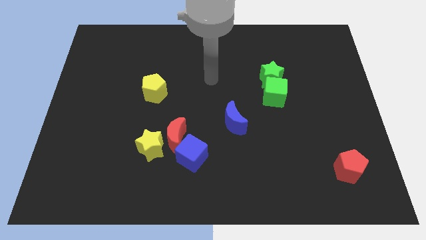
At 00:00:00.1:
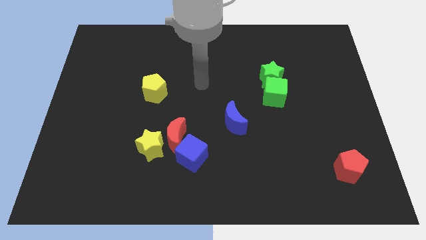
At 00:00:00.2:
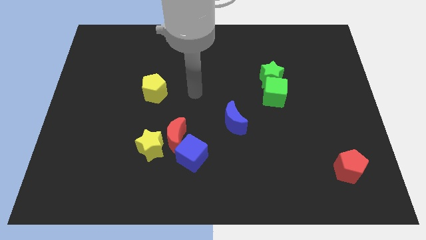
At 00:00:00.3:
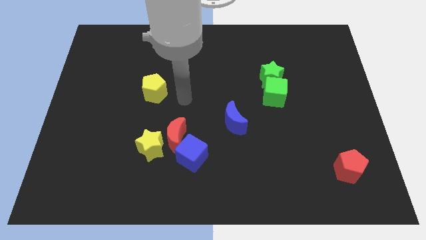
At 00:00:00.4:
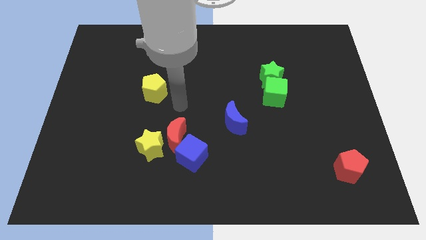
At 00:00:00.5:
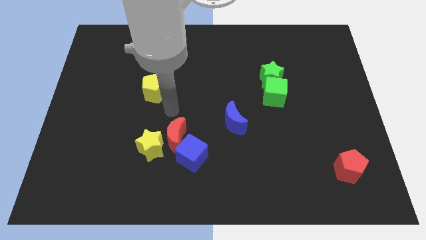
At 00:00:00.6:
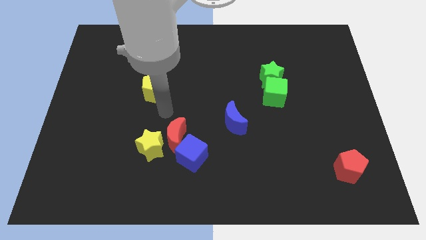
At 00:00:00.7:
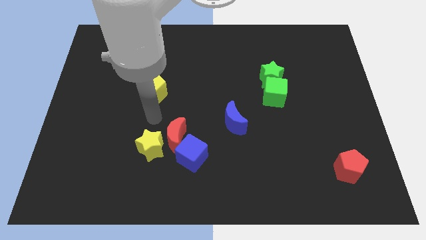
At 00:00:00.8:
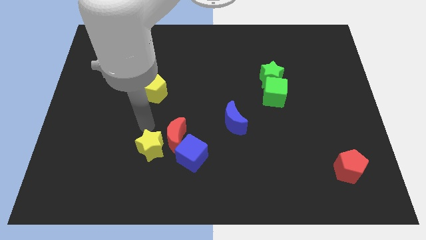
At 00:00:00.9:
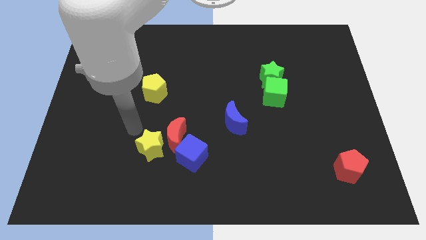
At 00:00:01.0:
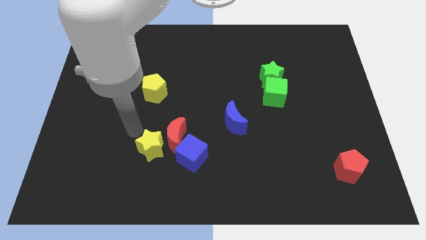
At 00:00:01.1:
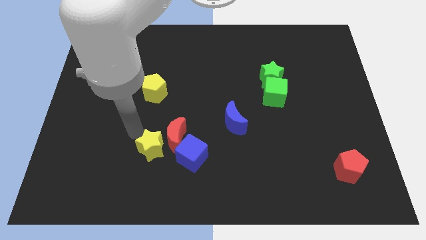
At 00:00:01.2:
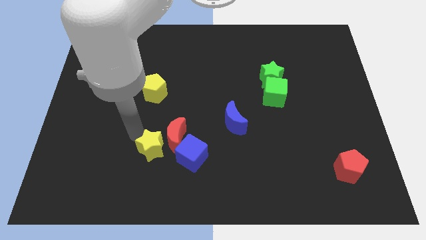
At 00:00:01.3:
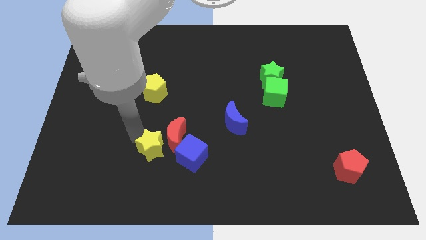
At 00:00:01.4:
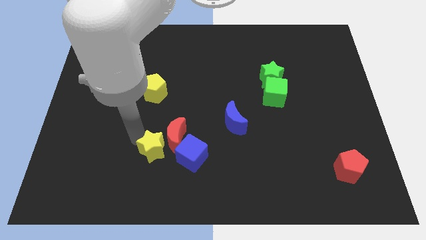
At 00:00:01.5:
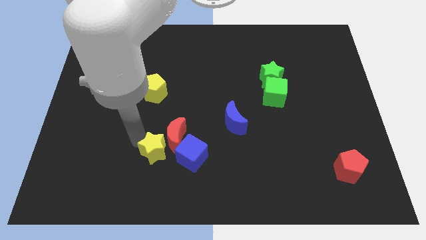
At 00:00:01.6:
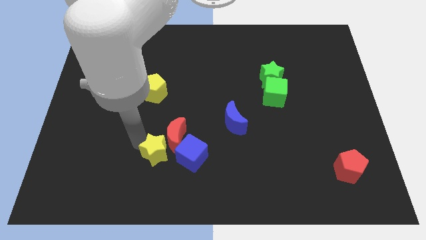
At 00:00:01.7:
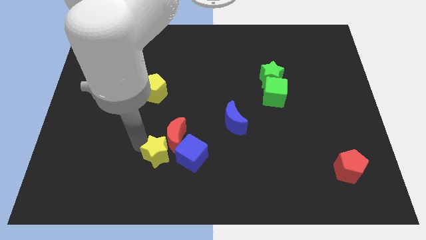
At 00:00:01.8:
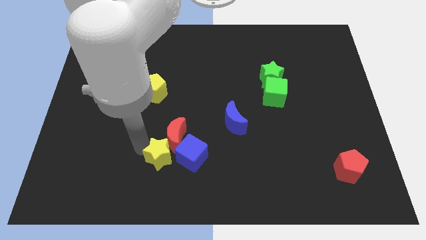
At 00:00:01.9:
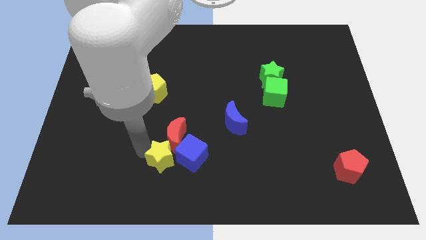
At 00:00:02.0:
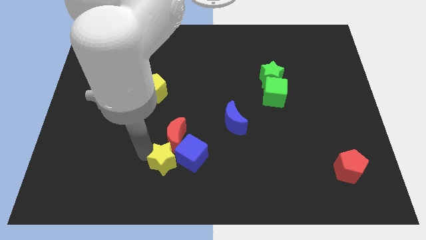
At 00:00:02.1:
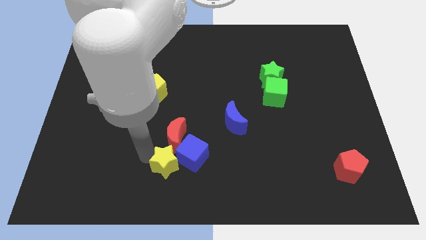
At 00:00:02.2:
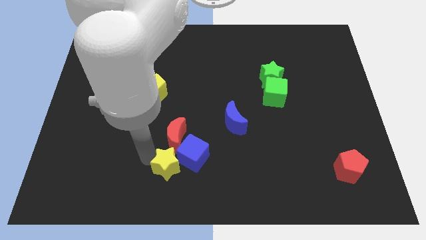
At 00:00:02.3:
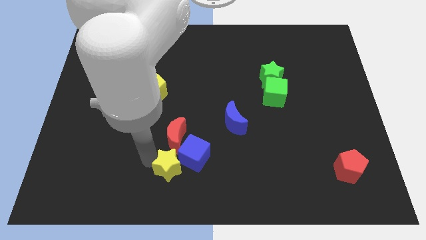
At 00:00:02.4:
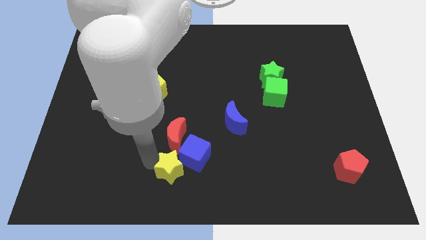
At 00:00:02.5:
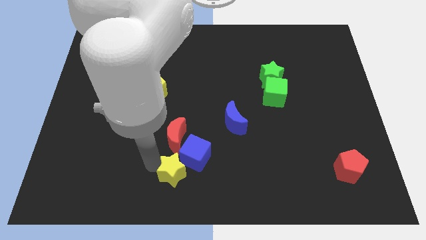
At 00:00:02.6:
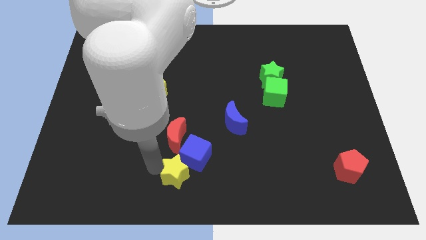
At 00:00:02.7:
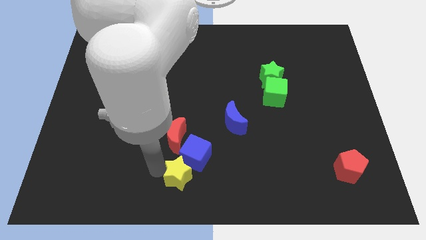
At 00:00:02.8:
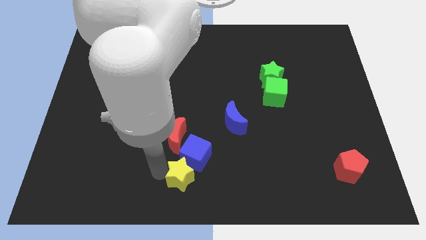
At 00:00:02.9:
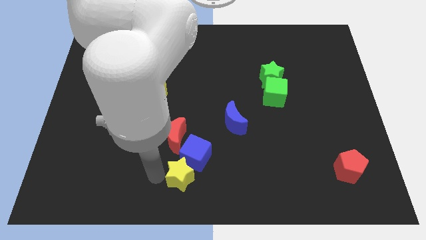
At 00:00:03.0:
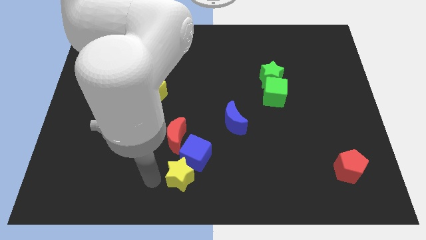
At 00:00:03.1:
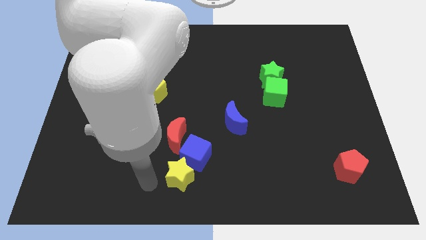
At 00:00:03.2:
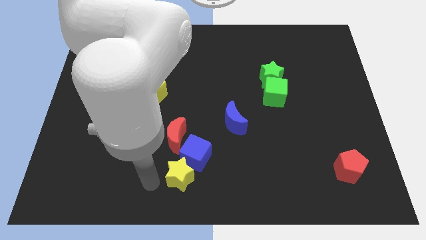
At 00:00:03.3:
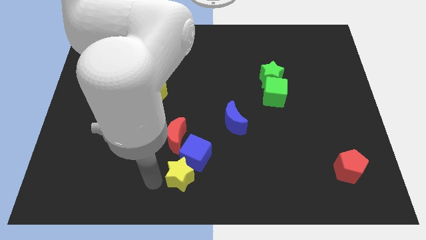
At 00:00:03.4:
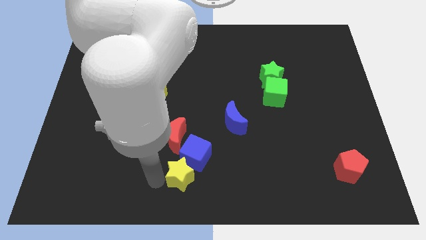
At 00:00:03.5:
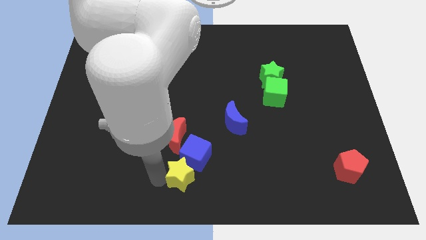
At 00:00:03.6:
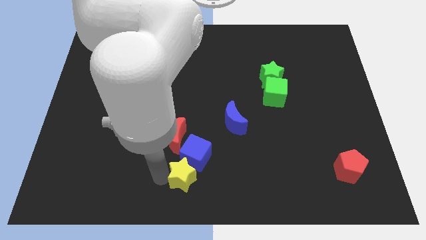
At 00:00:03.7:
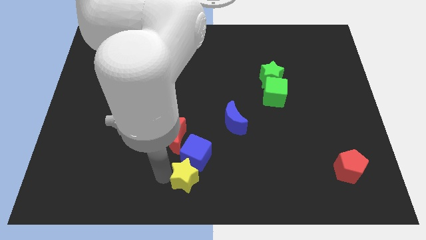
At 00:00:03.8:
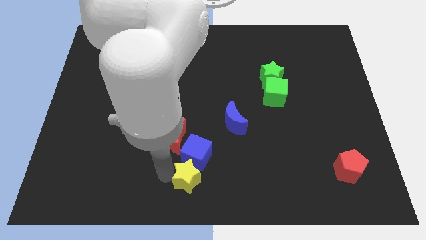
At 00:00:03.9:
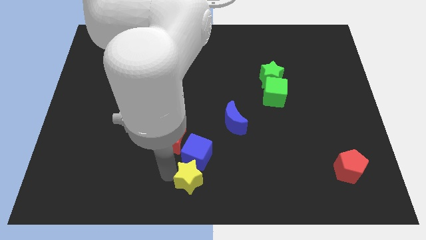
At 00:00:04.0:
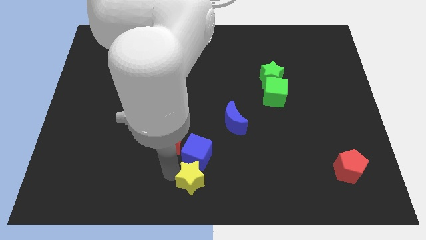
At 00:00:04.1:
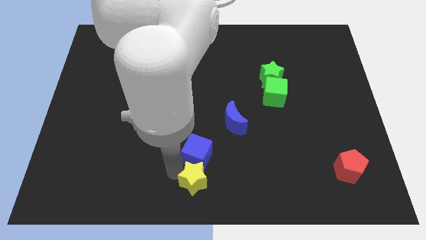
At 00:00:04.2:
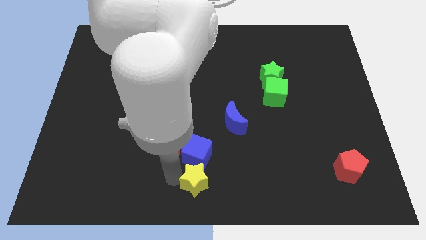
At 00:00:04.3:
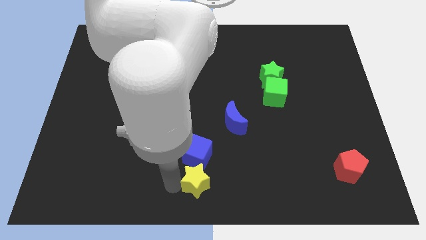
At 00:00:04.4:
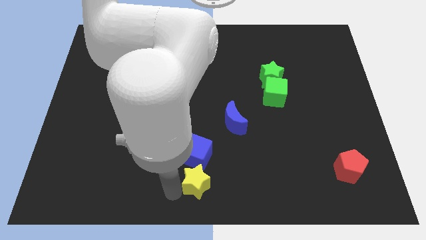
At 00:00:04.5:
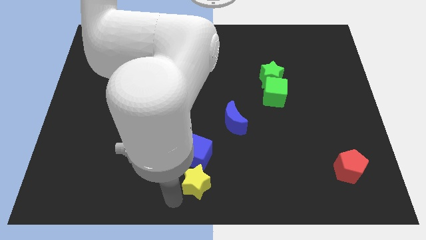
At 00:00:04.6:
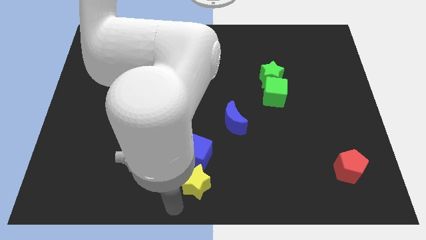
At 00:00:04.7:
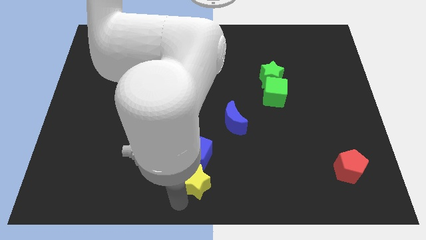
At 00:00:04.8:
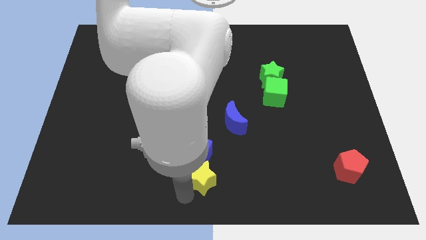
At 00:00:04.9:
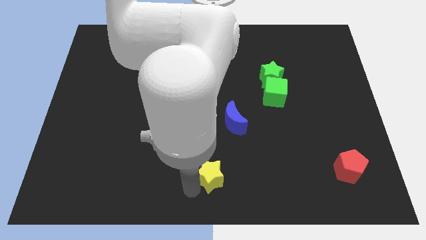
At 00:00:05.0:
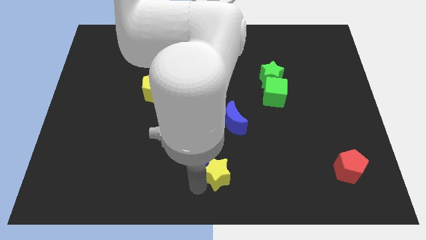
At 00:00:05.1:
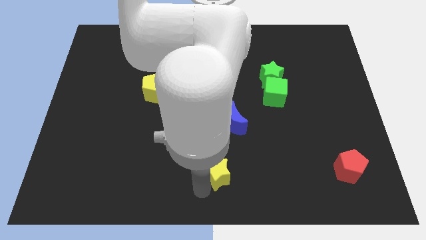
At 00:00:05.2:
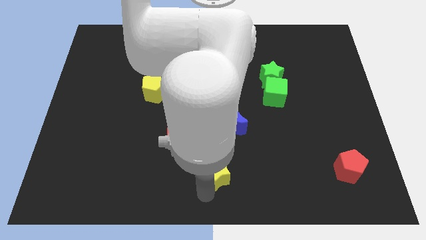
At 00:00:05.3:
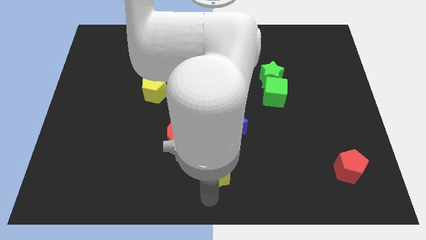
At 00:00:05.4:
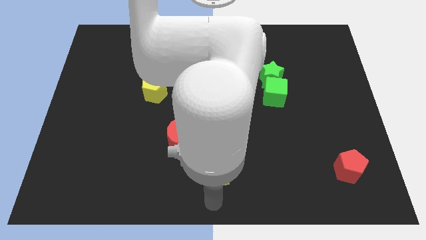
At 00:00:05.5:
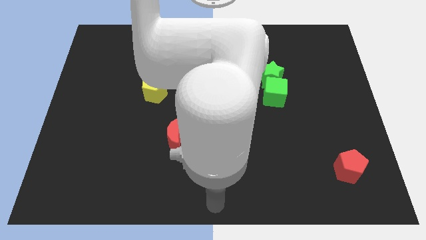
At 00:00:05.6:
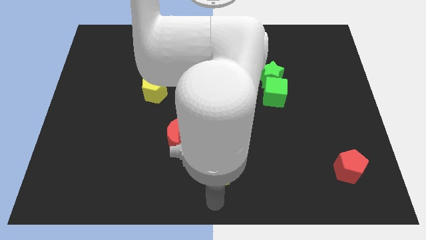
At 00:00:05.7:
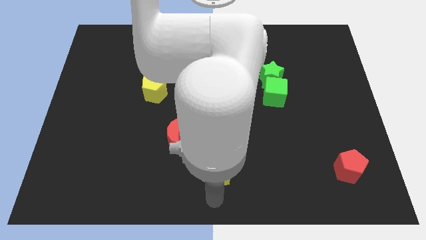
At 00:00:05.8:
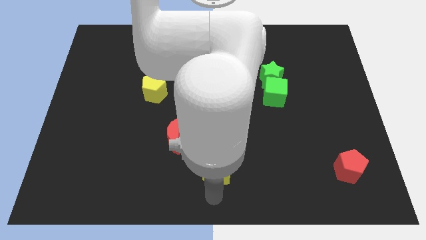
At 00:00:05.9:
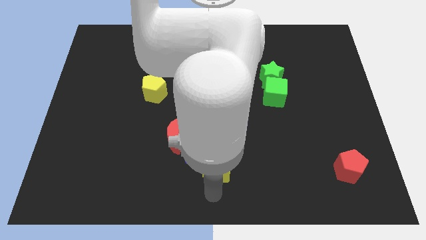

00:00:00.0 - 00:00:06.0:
push the yellow star to the right side of the blue cube
